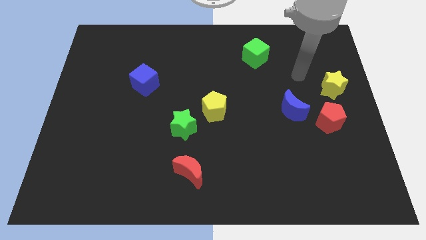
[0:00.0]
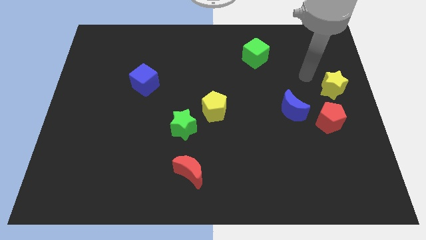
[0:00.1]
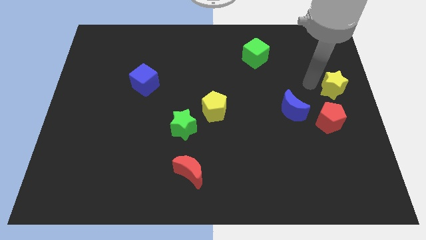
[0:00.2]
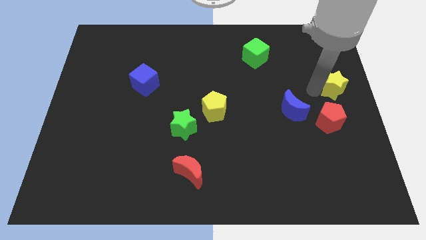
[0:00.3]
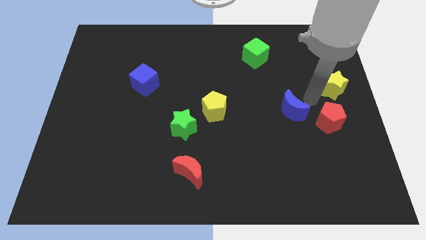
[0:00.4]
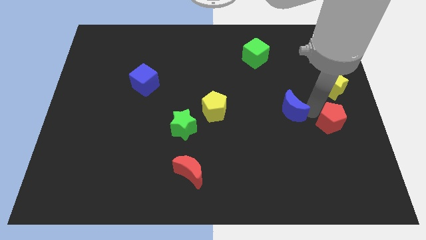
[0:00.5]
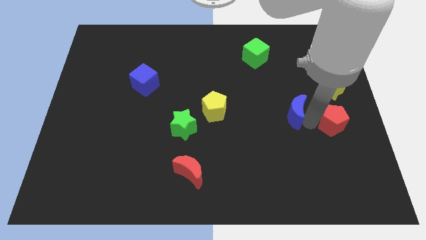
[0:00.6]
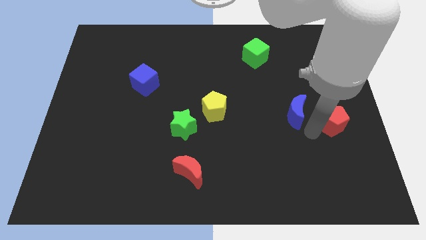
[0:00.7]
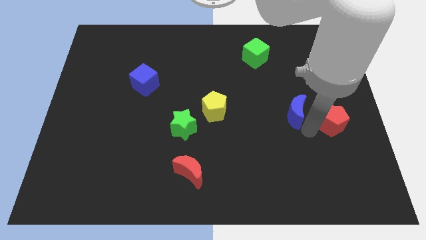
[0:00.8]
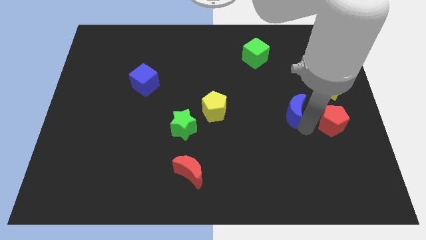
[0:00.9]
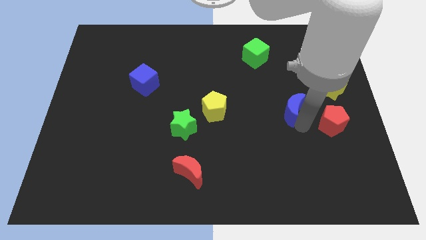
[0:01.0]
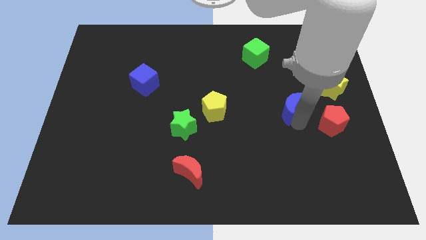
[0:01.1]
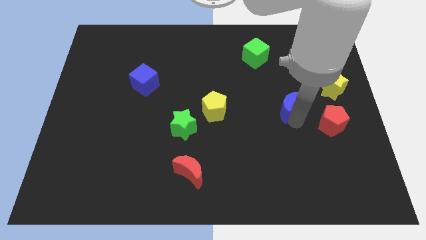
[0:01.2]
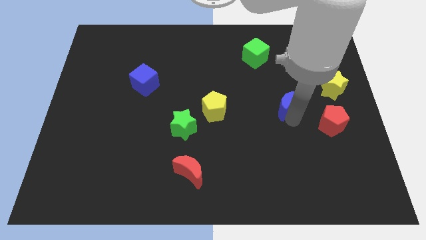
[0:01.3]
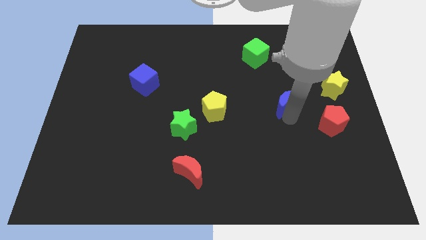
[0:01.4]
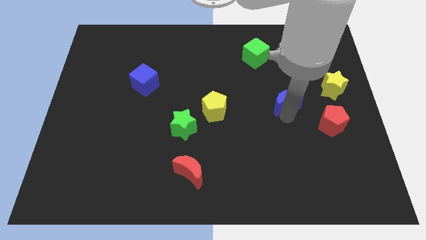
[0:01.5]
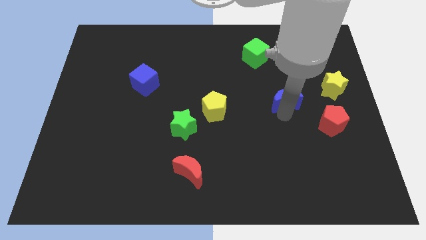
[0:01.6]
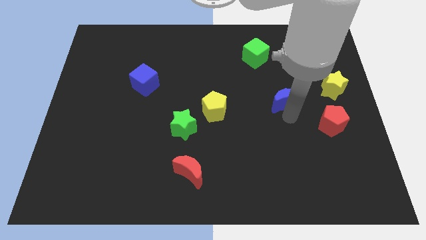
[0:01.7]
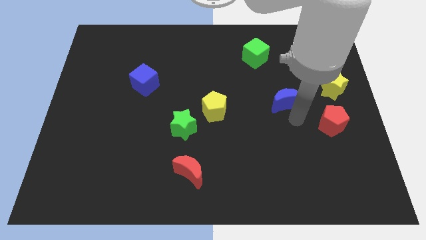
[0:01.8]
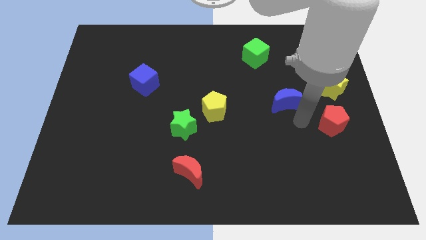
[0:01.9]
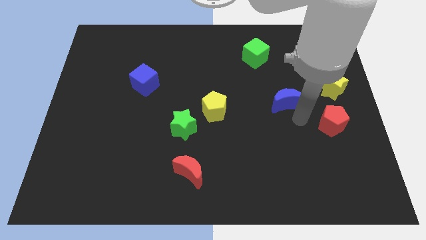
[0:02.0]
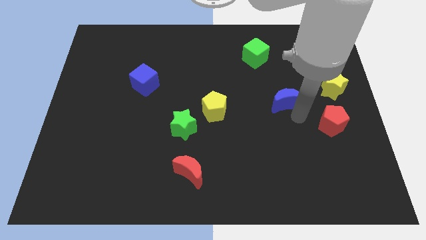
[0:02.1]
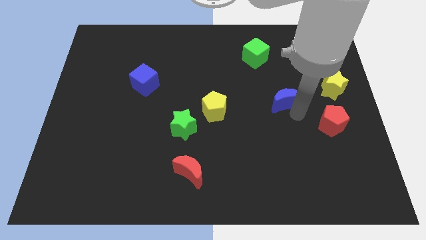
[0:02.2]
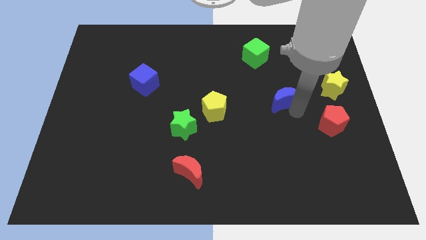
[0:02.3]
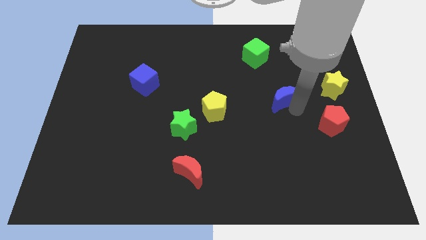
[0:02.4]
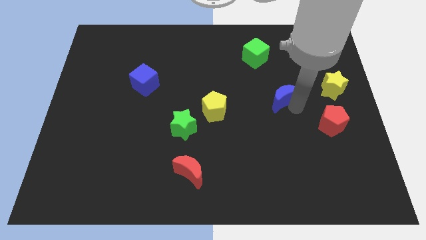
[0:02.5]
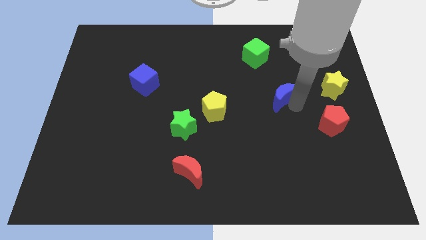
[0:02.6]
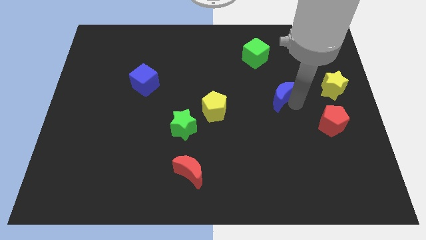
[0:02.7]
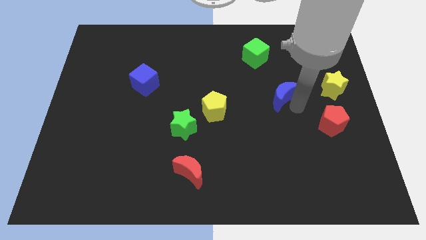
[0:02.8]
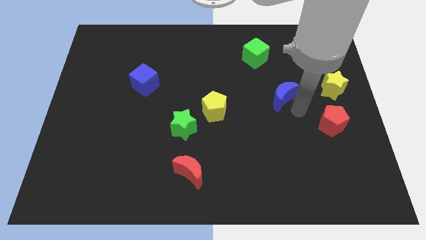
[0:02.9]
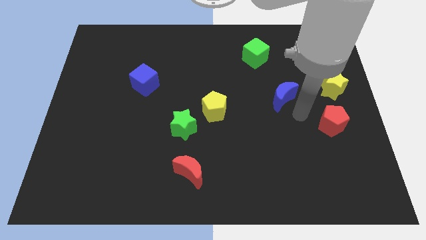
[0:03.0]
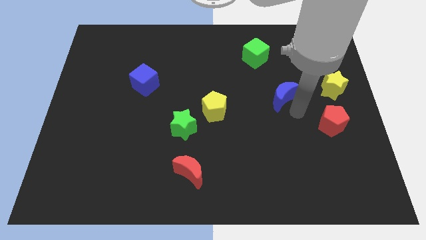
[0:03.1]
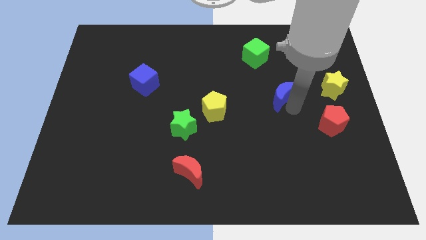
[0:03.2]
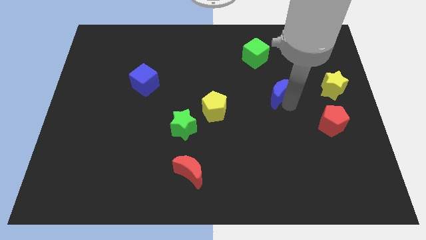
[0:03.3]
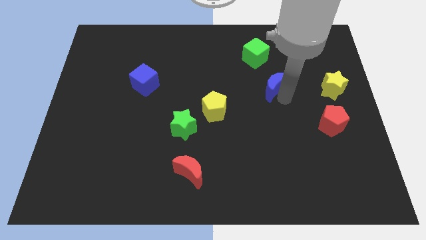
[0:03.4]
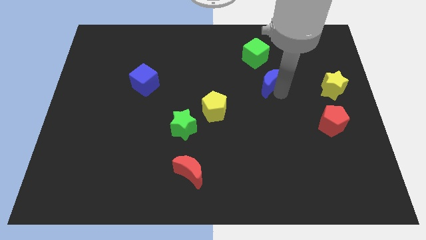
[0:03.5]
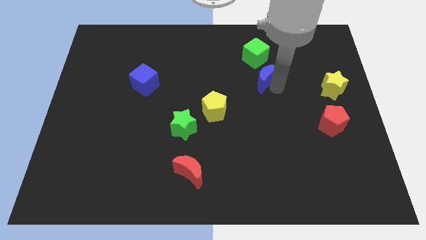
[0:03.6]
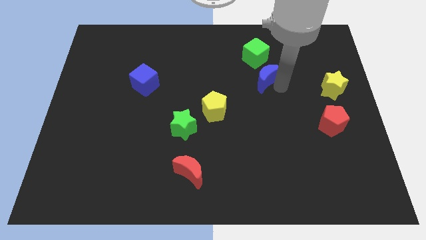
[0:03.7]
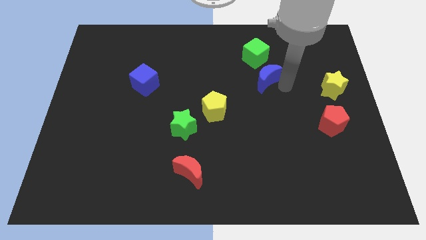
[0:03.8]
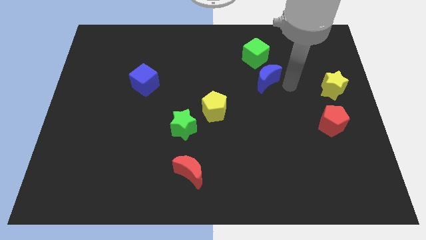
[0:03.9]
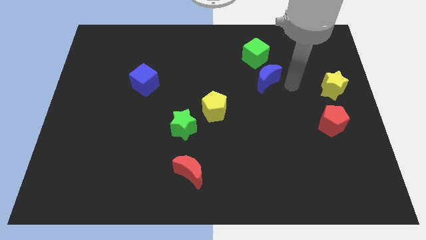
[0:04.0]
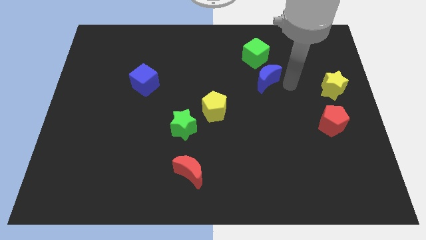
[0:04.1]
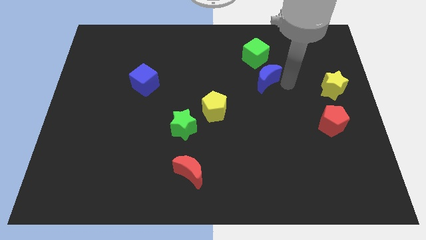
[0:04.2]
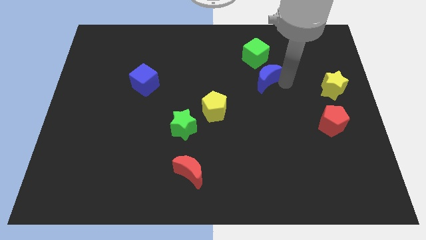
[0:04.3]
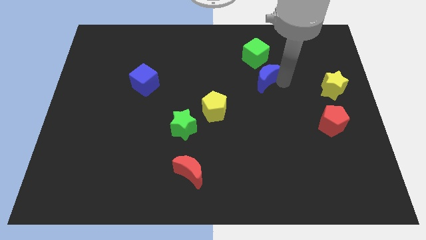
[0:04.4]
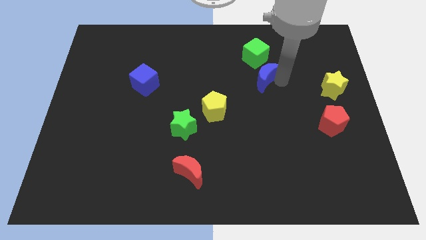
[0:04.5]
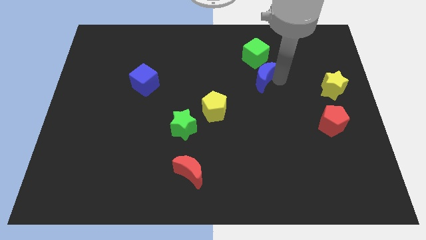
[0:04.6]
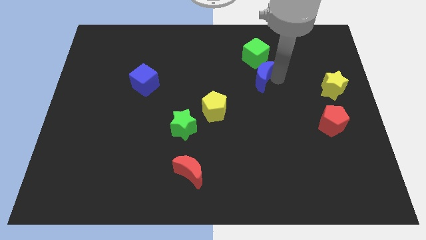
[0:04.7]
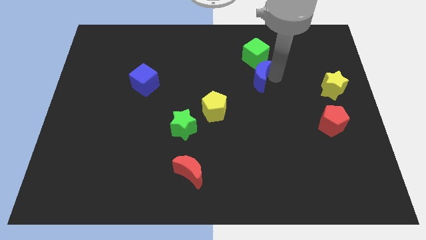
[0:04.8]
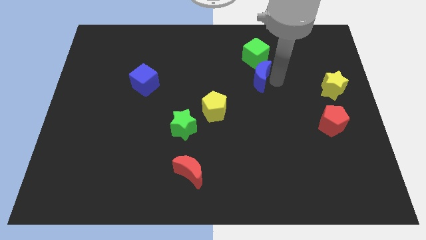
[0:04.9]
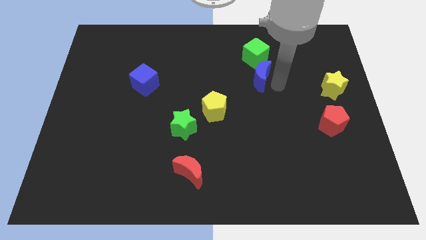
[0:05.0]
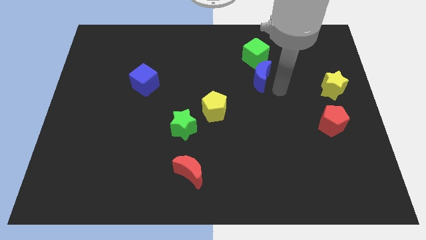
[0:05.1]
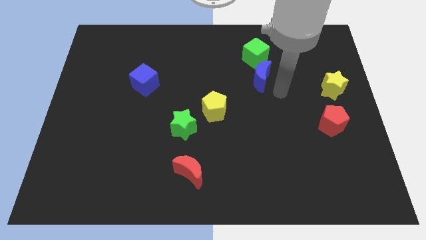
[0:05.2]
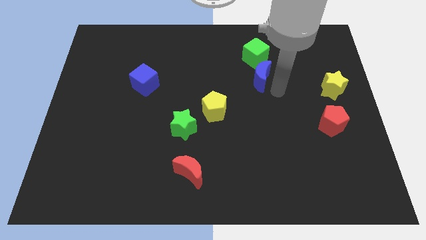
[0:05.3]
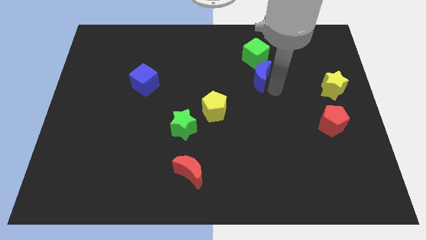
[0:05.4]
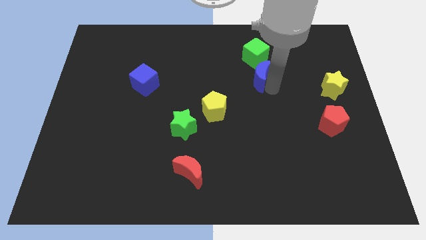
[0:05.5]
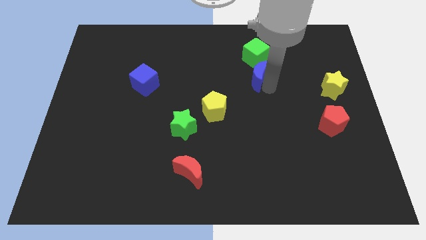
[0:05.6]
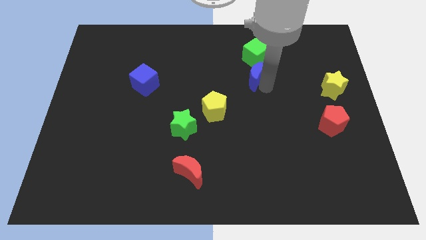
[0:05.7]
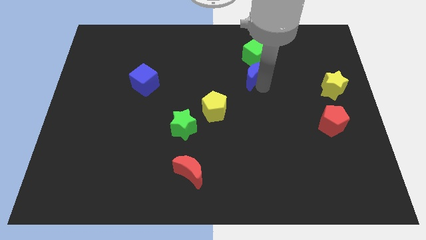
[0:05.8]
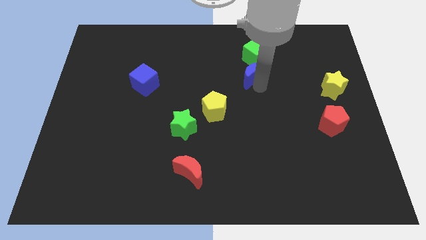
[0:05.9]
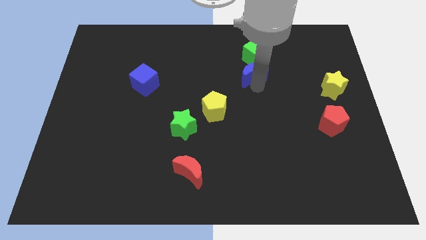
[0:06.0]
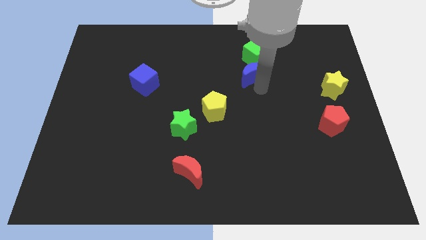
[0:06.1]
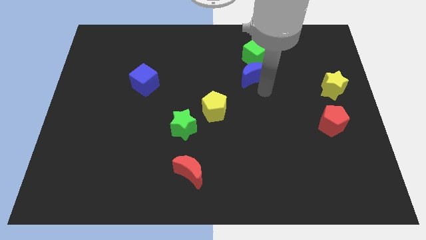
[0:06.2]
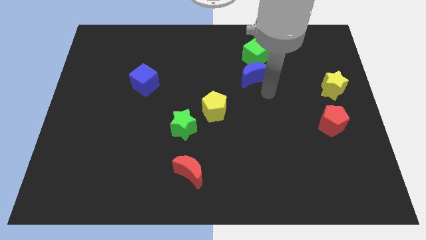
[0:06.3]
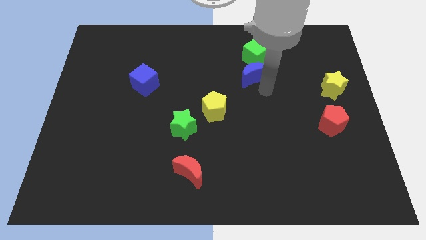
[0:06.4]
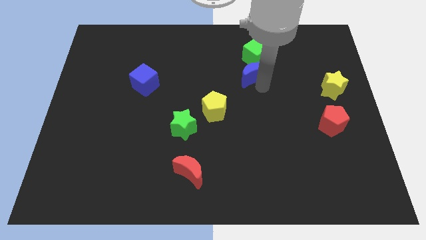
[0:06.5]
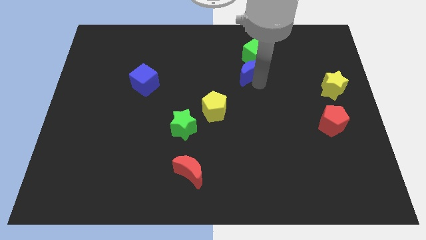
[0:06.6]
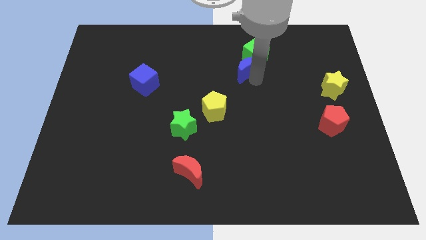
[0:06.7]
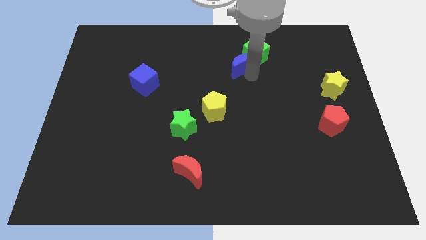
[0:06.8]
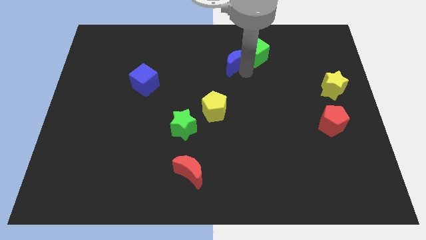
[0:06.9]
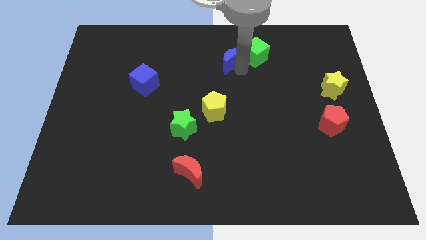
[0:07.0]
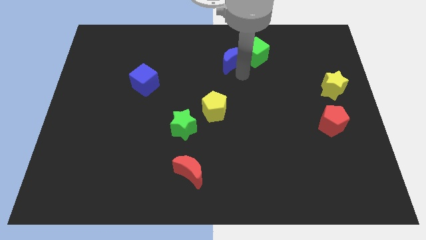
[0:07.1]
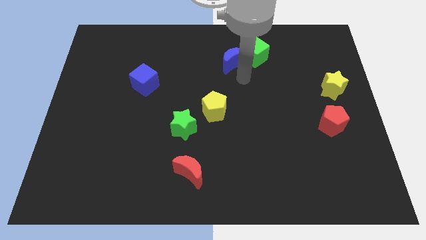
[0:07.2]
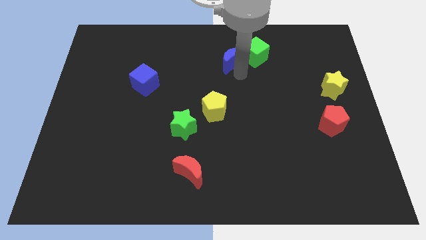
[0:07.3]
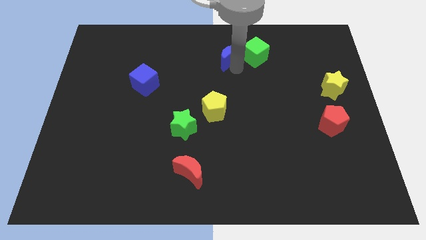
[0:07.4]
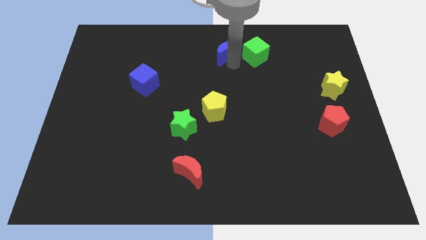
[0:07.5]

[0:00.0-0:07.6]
put the blue moon to the top
